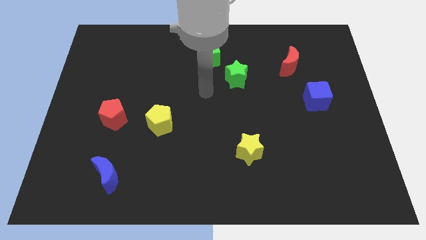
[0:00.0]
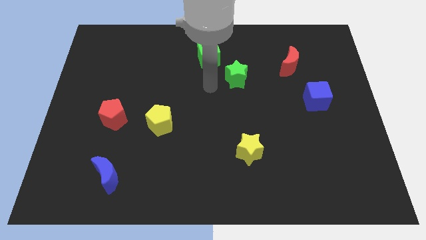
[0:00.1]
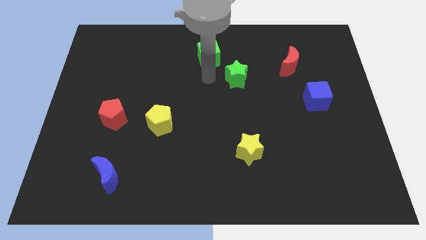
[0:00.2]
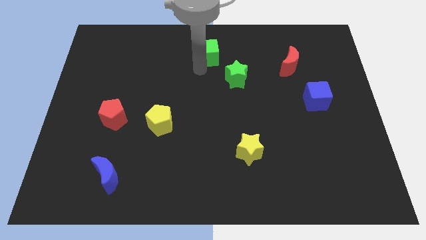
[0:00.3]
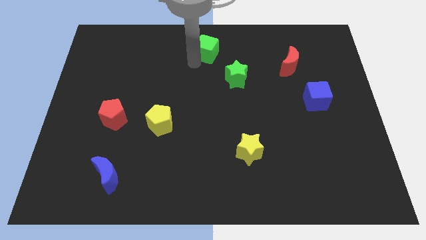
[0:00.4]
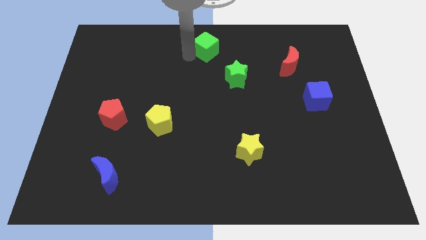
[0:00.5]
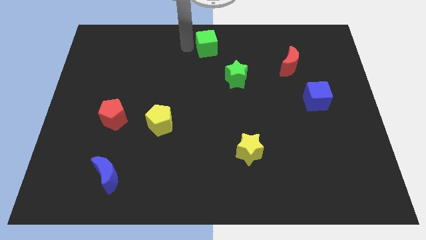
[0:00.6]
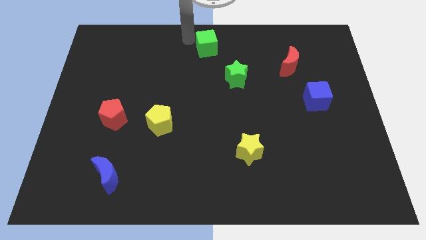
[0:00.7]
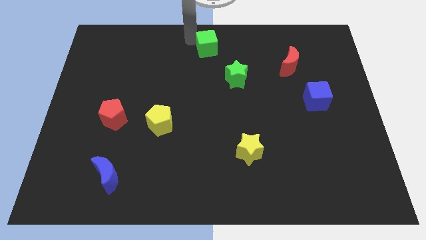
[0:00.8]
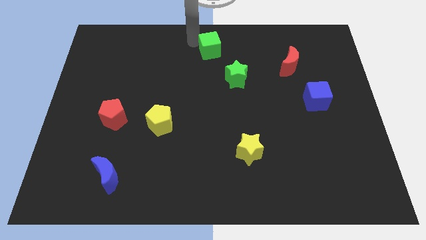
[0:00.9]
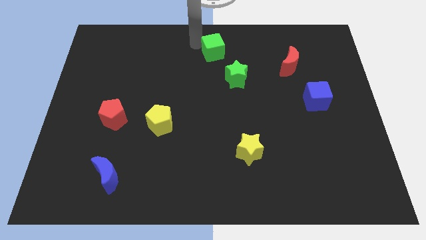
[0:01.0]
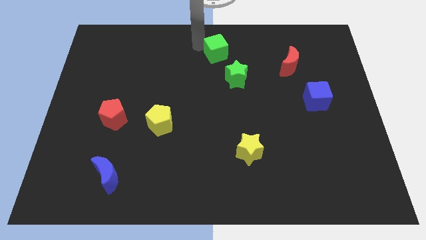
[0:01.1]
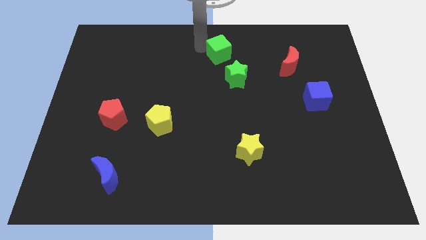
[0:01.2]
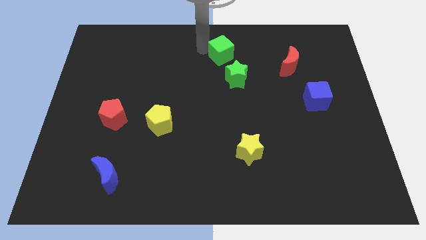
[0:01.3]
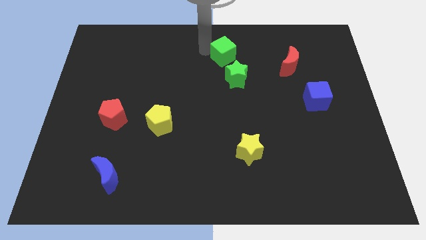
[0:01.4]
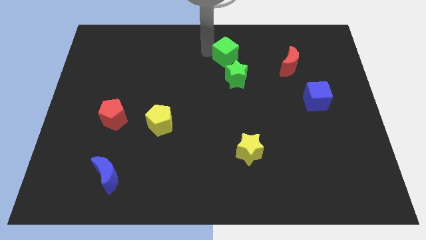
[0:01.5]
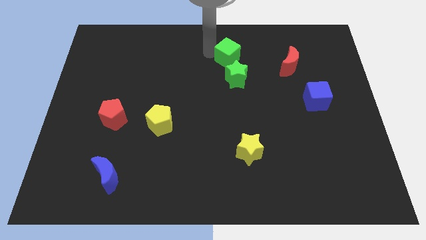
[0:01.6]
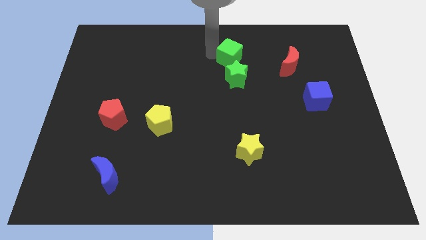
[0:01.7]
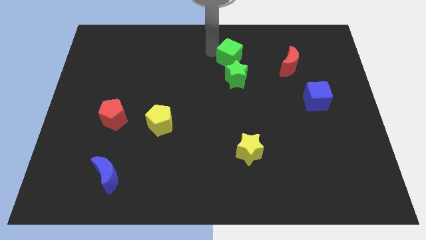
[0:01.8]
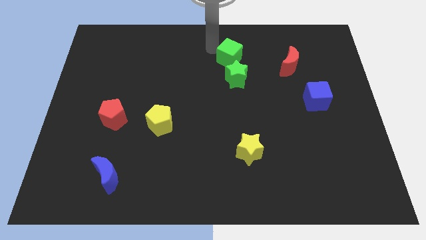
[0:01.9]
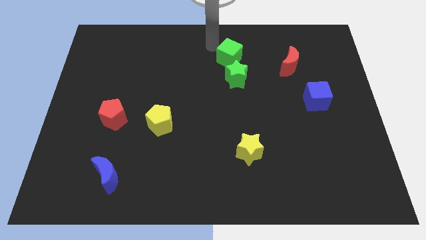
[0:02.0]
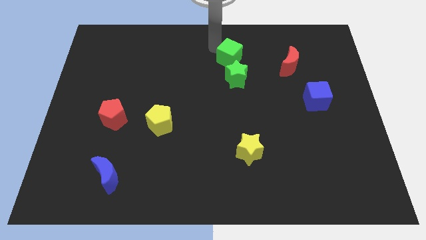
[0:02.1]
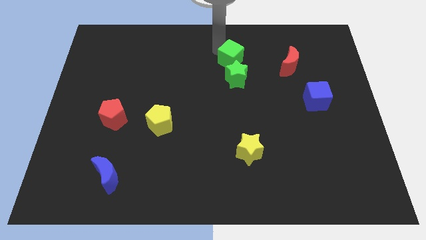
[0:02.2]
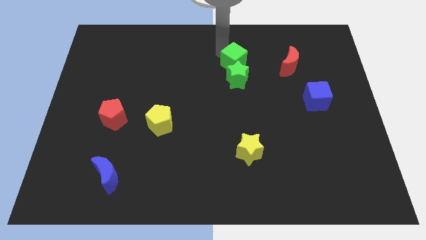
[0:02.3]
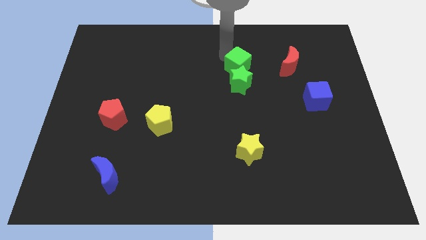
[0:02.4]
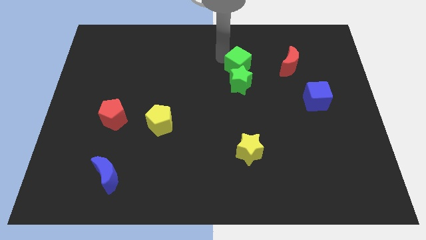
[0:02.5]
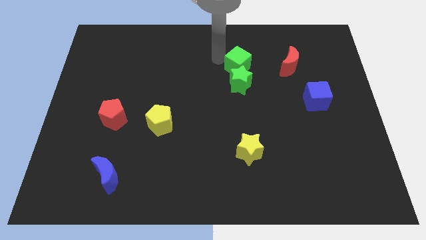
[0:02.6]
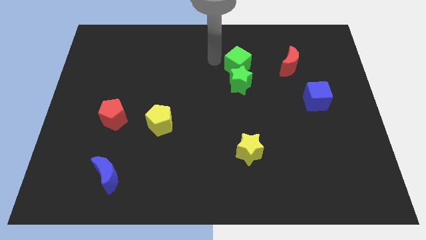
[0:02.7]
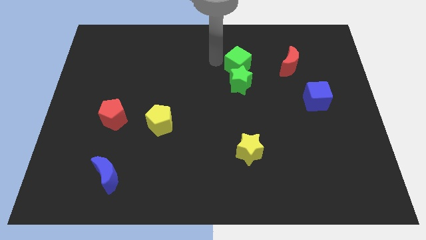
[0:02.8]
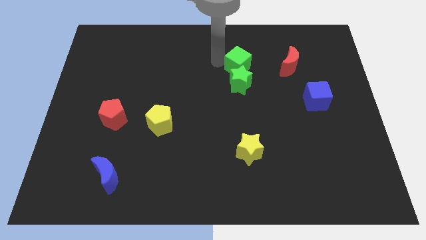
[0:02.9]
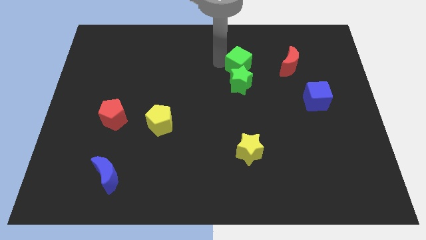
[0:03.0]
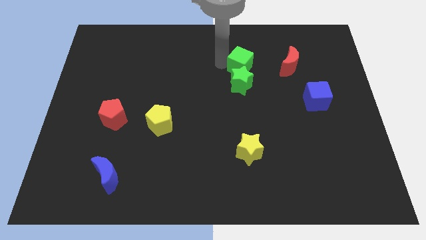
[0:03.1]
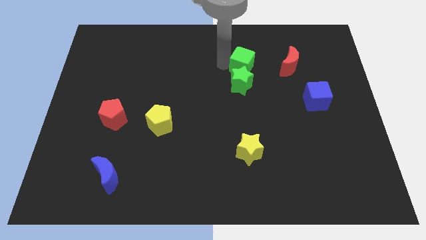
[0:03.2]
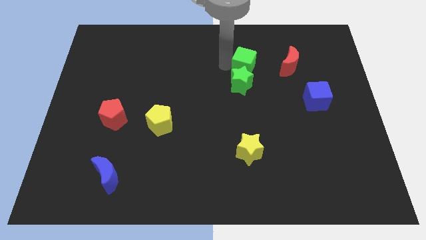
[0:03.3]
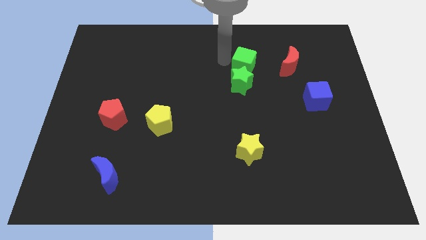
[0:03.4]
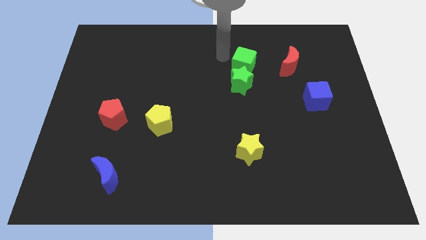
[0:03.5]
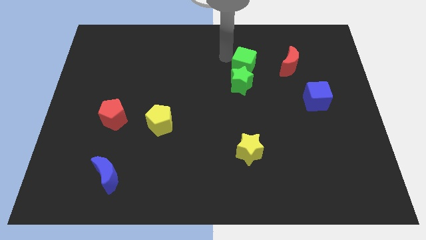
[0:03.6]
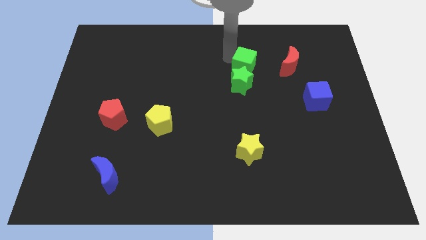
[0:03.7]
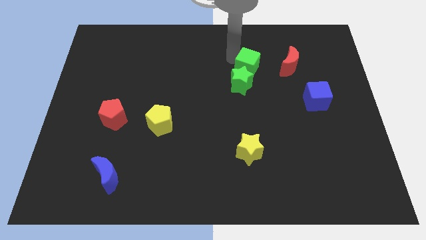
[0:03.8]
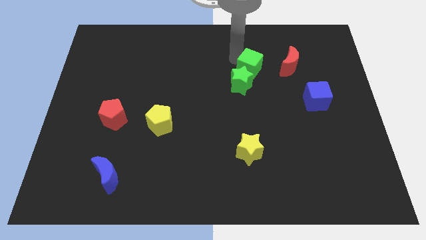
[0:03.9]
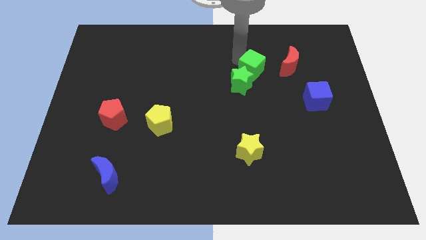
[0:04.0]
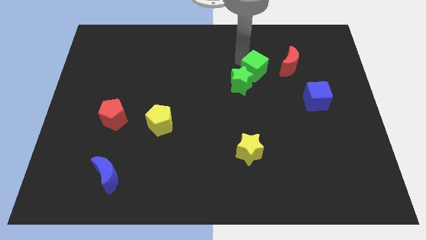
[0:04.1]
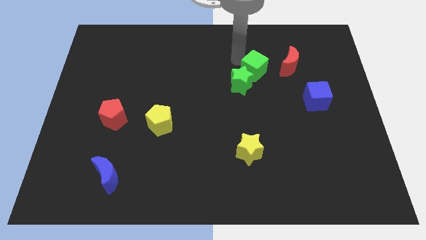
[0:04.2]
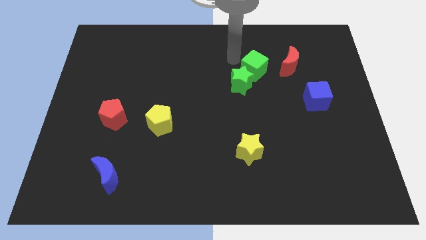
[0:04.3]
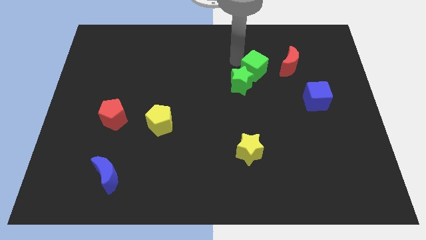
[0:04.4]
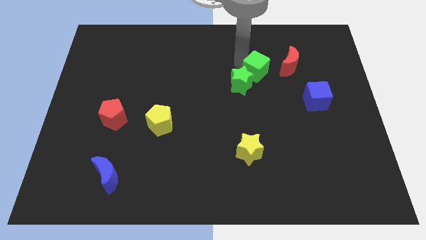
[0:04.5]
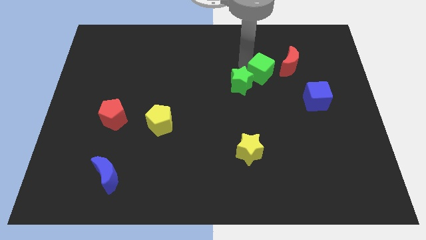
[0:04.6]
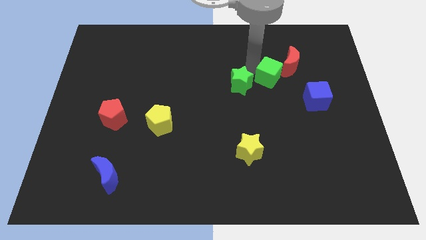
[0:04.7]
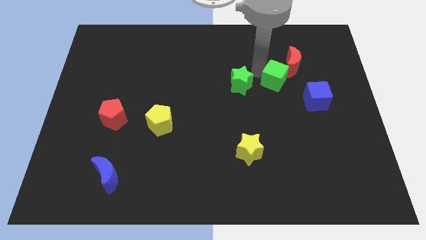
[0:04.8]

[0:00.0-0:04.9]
push the green cube to the top left of the blue cube

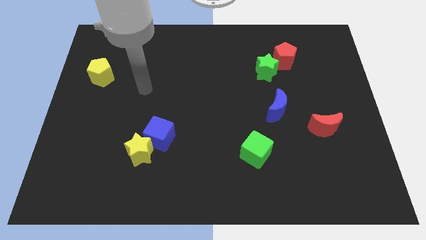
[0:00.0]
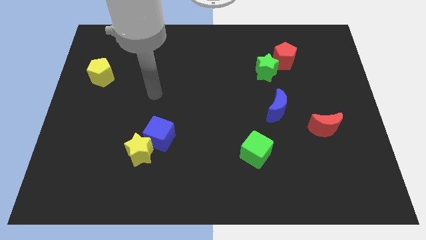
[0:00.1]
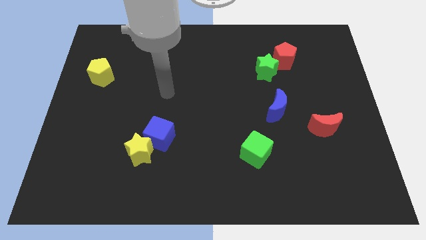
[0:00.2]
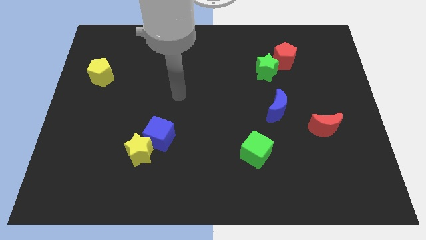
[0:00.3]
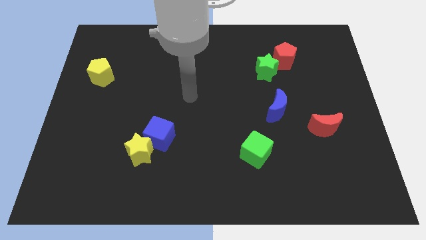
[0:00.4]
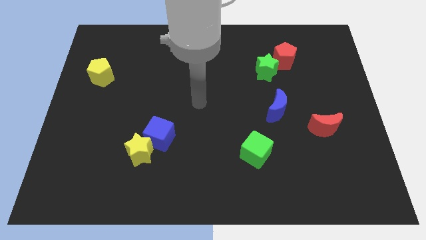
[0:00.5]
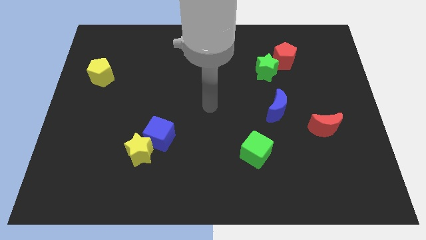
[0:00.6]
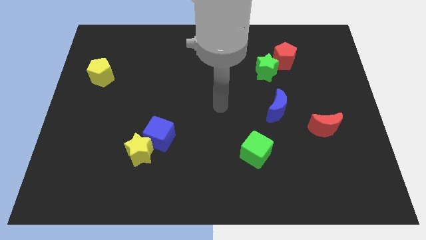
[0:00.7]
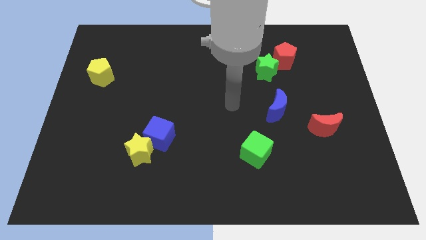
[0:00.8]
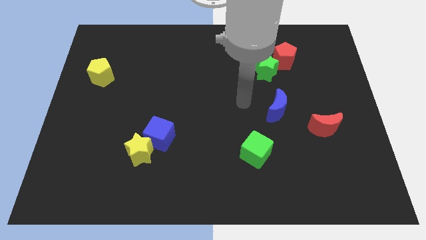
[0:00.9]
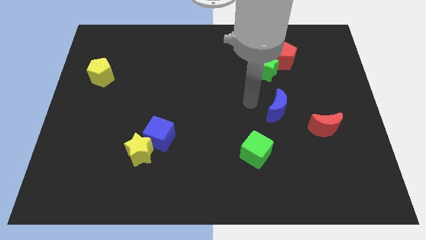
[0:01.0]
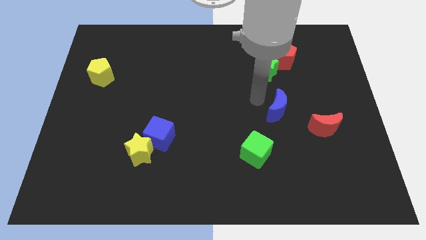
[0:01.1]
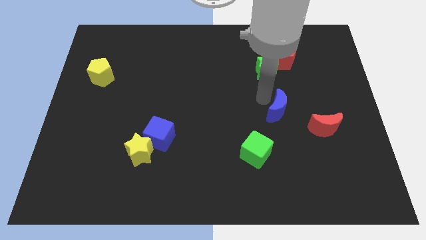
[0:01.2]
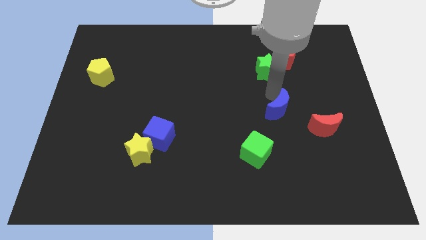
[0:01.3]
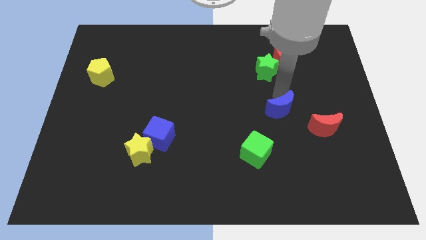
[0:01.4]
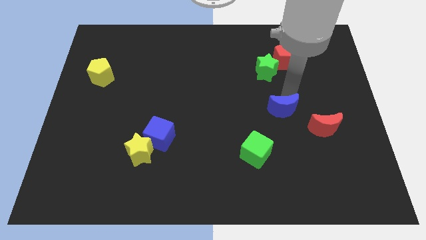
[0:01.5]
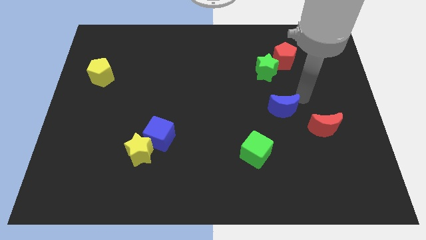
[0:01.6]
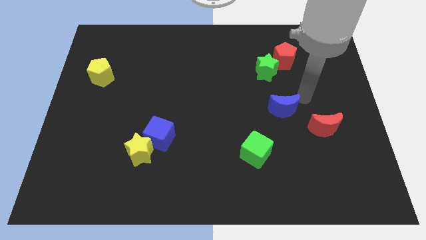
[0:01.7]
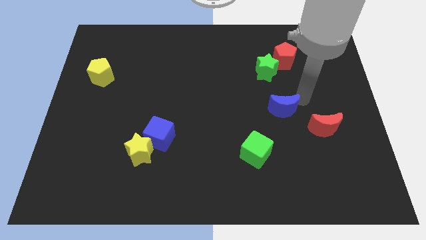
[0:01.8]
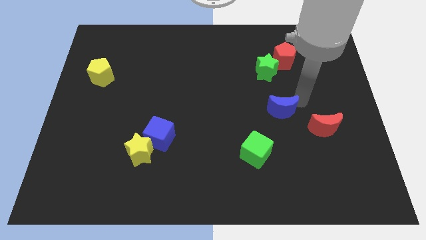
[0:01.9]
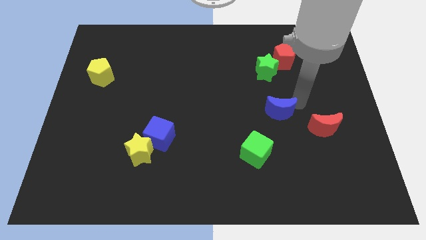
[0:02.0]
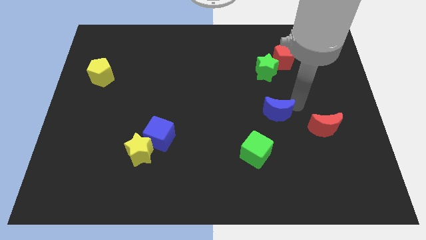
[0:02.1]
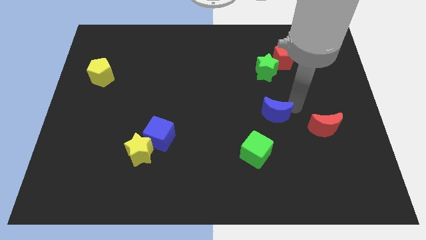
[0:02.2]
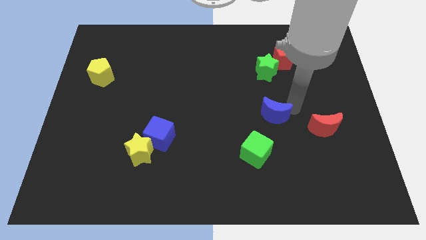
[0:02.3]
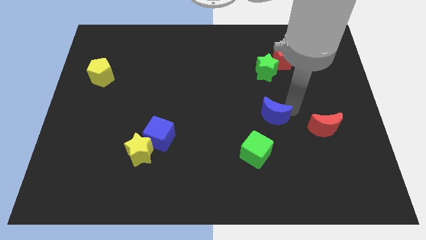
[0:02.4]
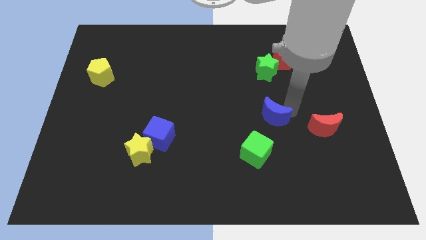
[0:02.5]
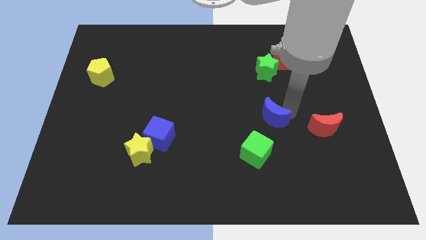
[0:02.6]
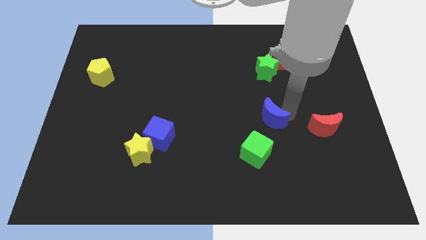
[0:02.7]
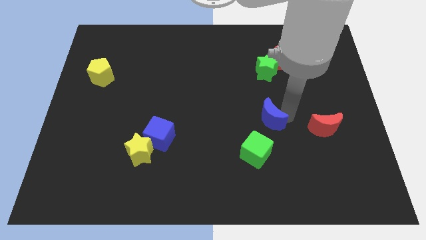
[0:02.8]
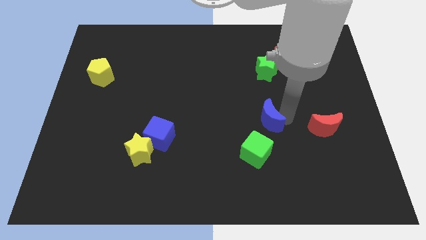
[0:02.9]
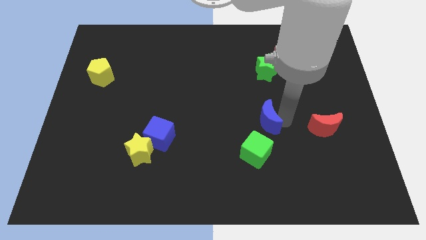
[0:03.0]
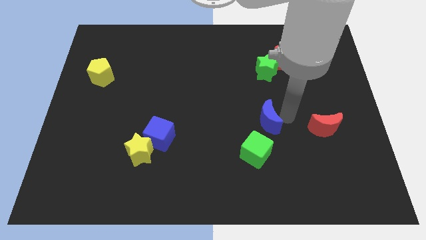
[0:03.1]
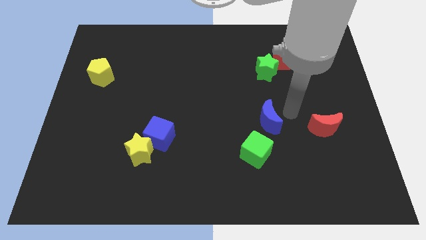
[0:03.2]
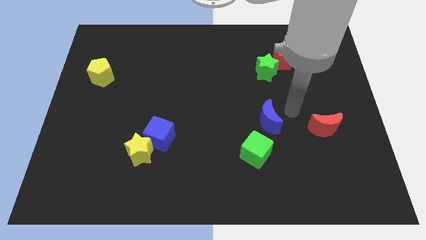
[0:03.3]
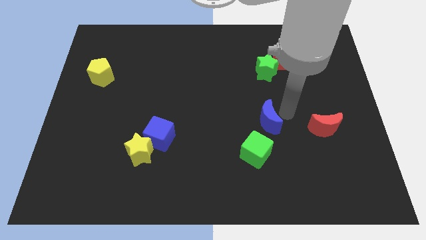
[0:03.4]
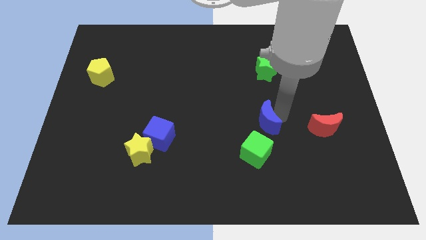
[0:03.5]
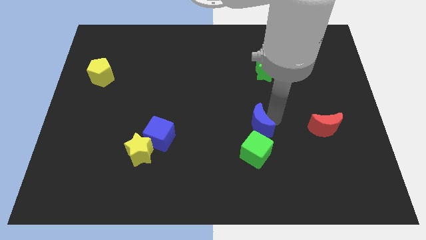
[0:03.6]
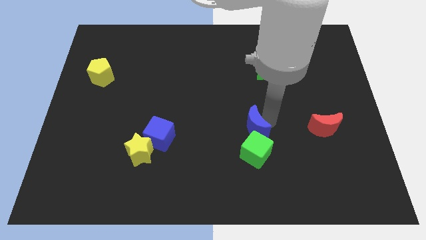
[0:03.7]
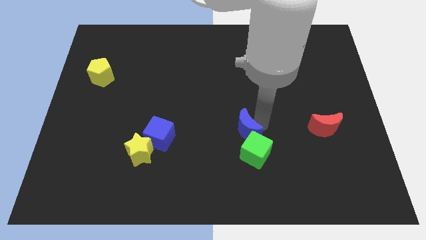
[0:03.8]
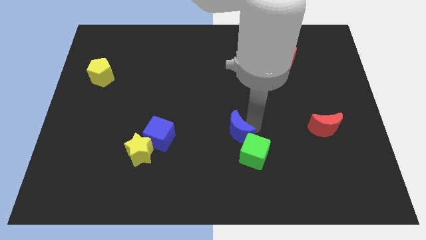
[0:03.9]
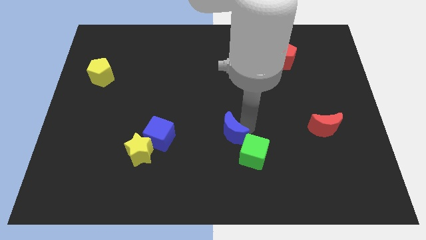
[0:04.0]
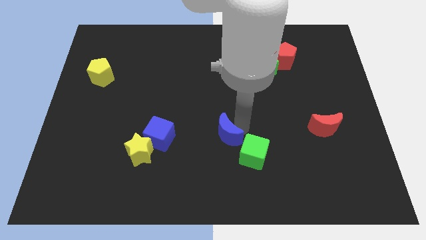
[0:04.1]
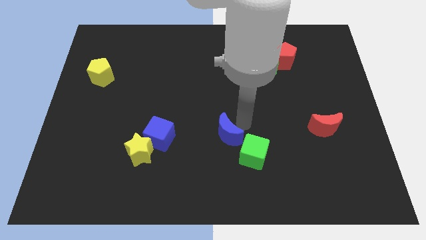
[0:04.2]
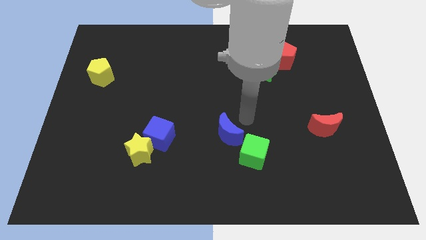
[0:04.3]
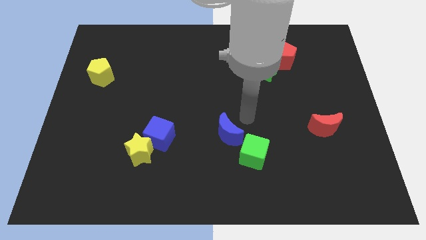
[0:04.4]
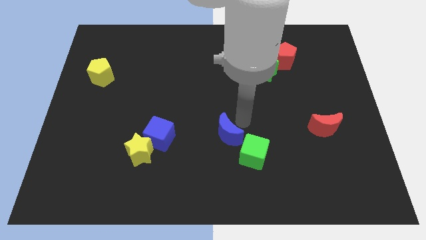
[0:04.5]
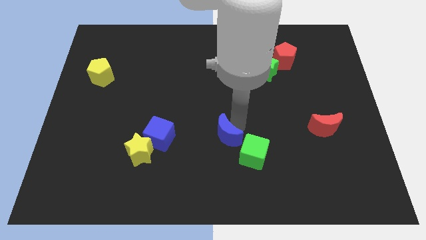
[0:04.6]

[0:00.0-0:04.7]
move the blue moon to the left side of the green cube
